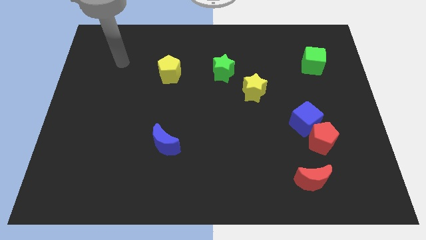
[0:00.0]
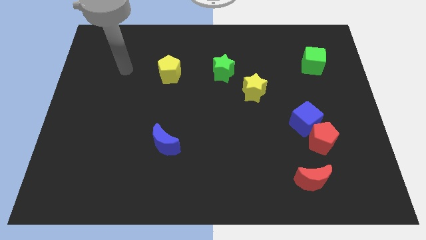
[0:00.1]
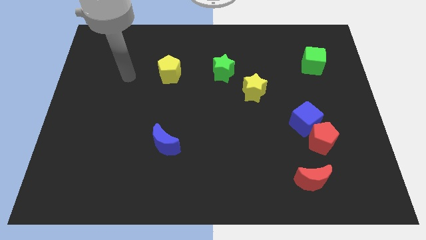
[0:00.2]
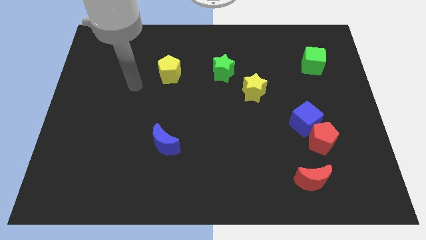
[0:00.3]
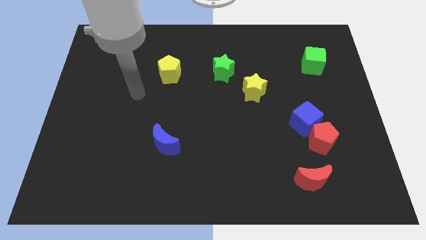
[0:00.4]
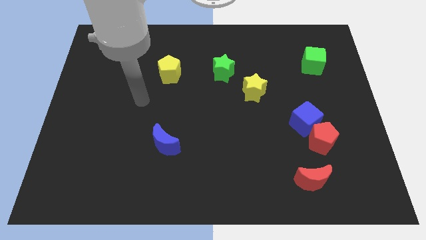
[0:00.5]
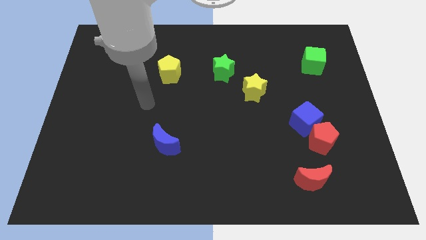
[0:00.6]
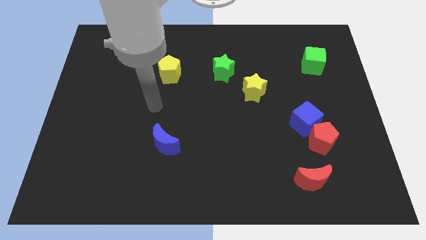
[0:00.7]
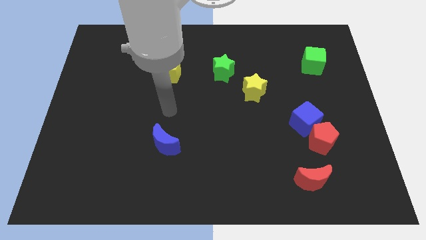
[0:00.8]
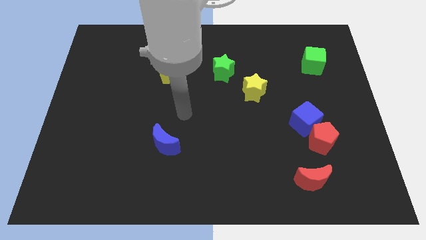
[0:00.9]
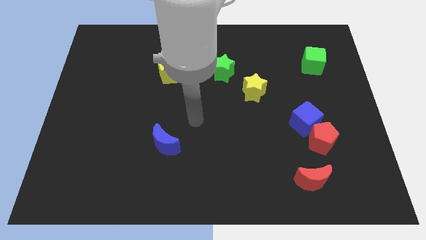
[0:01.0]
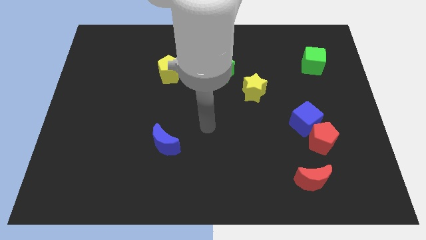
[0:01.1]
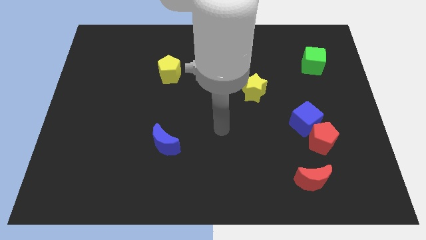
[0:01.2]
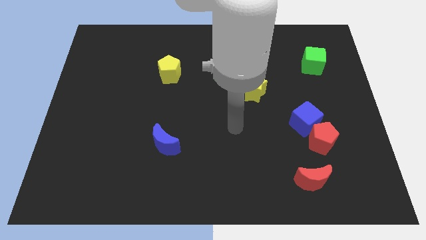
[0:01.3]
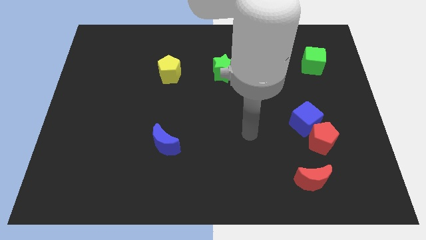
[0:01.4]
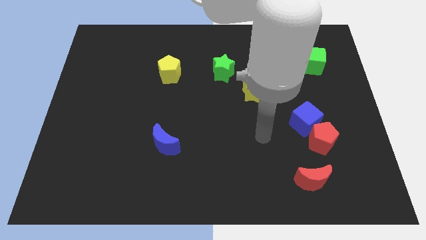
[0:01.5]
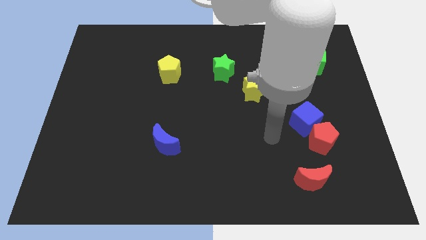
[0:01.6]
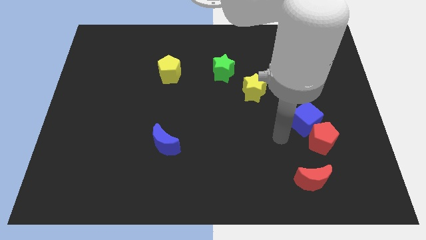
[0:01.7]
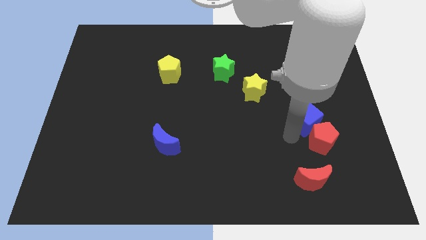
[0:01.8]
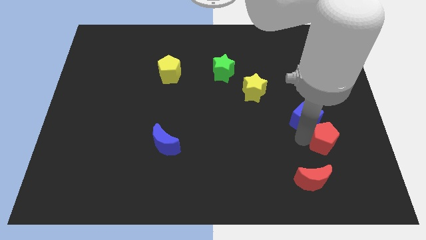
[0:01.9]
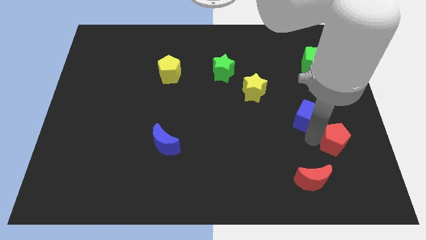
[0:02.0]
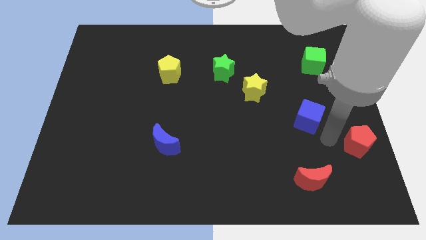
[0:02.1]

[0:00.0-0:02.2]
separate the blue cube from the red pentagon

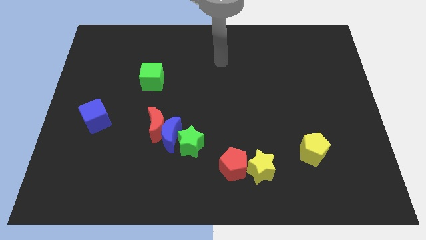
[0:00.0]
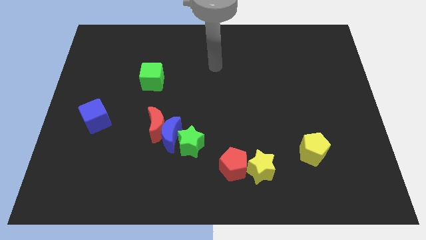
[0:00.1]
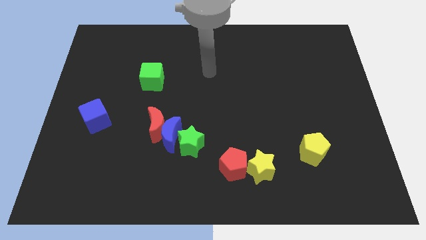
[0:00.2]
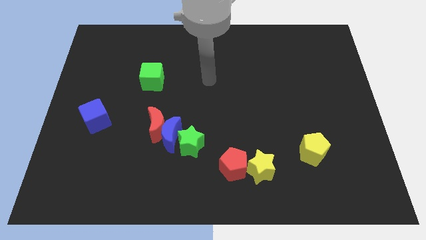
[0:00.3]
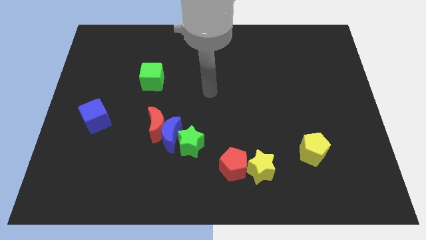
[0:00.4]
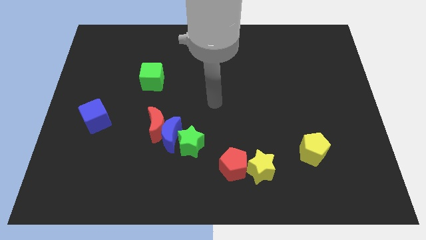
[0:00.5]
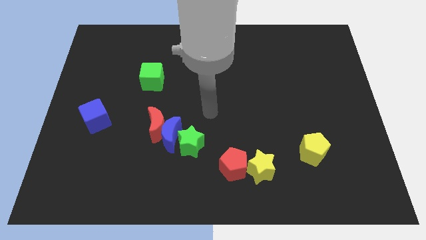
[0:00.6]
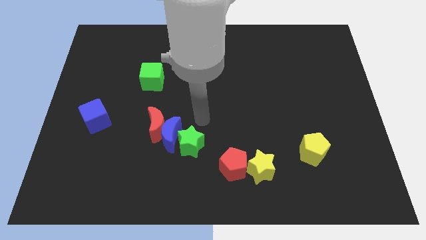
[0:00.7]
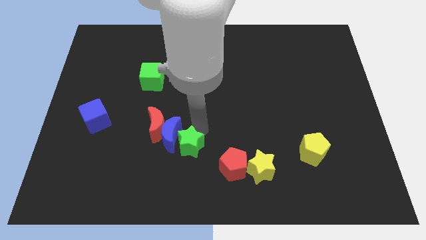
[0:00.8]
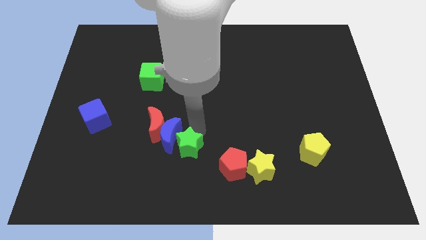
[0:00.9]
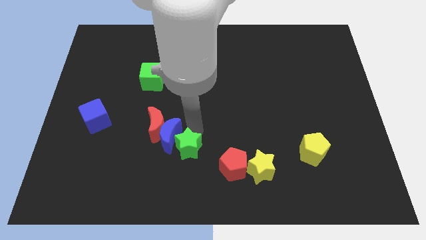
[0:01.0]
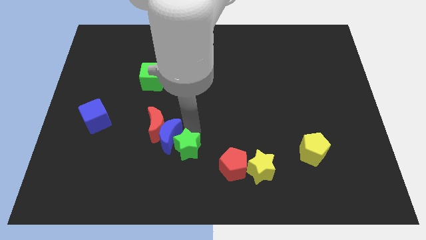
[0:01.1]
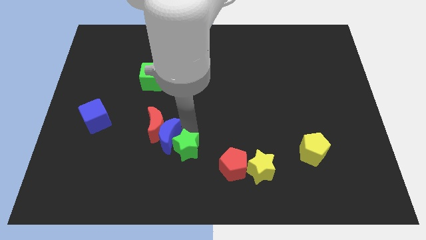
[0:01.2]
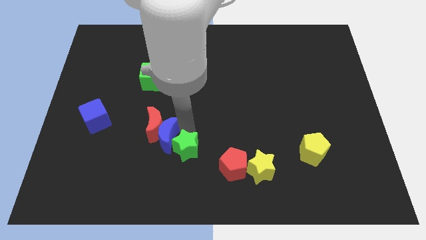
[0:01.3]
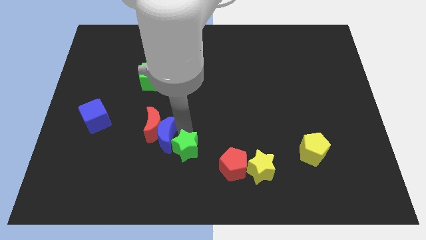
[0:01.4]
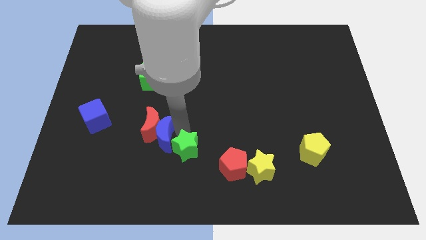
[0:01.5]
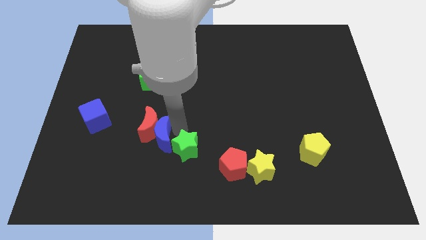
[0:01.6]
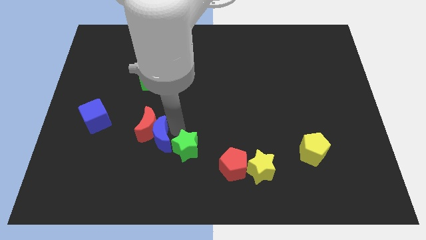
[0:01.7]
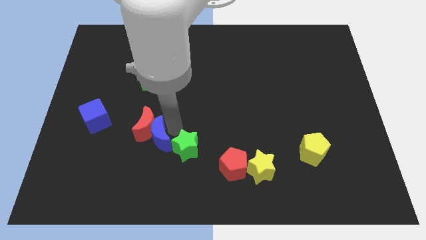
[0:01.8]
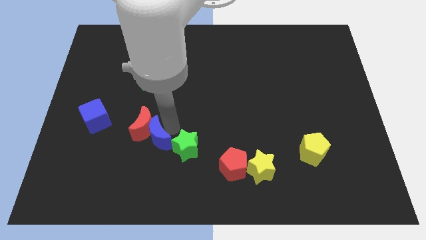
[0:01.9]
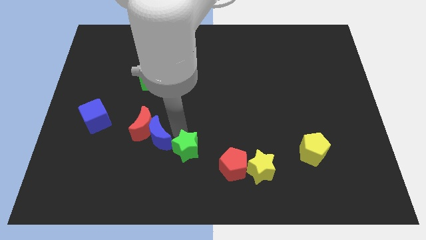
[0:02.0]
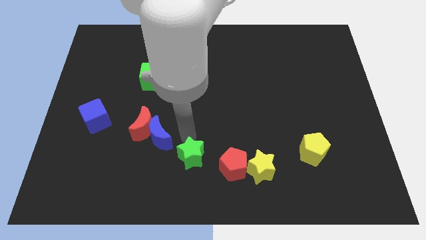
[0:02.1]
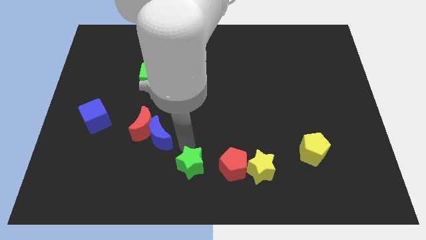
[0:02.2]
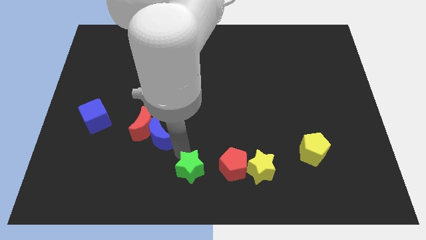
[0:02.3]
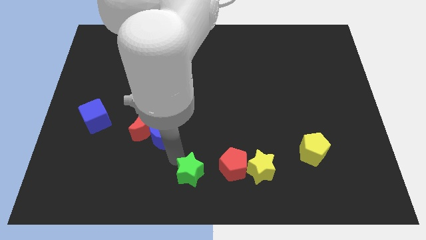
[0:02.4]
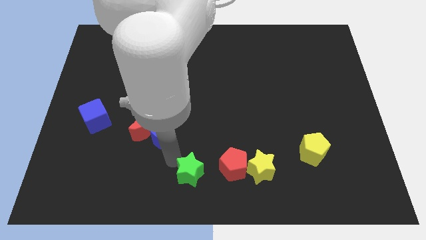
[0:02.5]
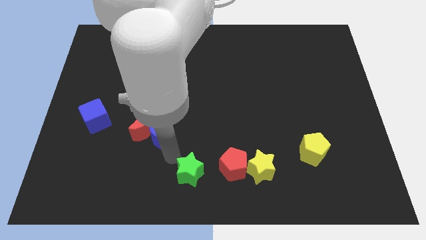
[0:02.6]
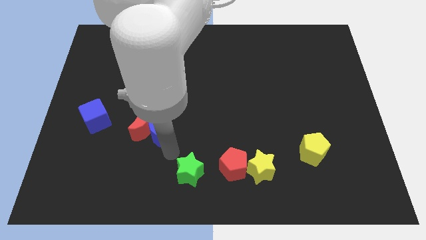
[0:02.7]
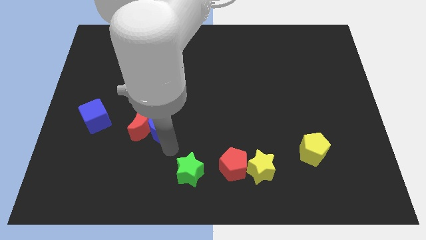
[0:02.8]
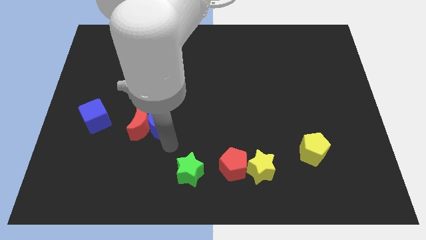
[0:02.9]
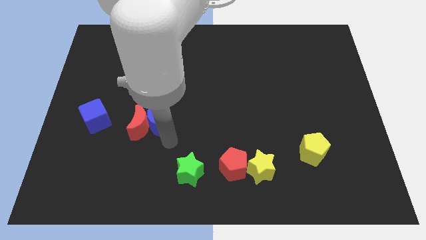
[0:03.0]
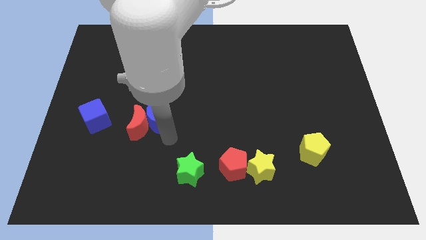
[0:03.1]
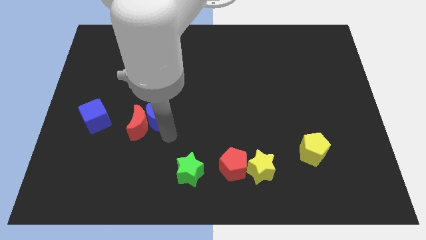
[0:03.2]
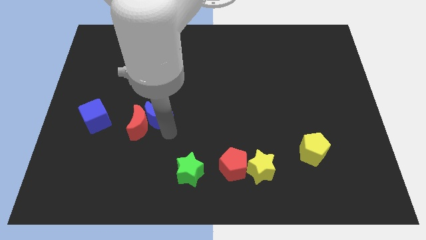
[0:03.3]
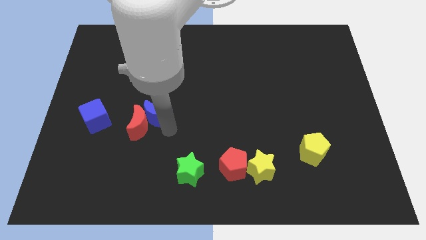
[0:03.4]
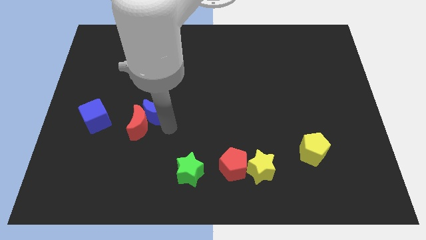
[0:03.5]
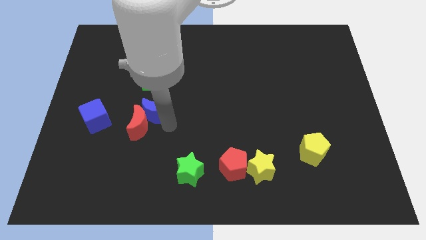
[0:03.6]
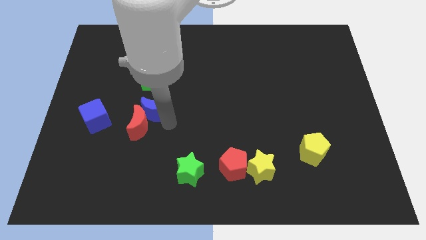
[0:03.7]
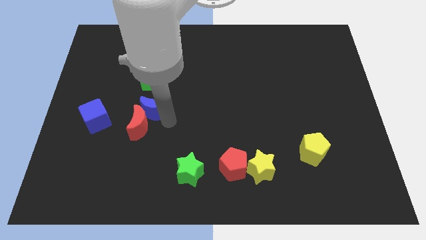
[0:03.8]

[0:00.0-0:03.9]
separate the blue moon from the red moon and green star

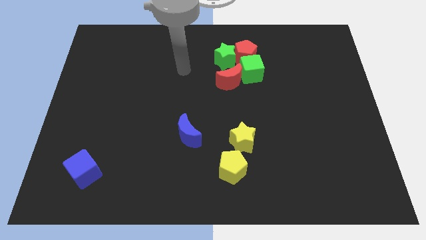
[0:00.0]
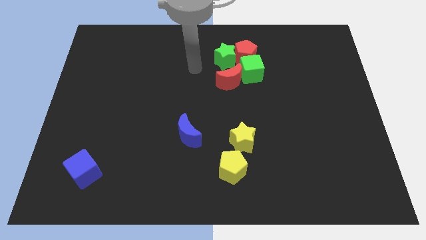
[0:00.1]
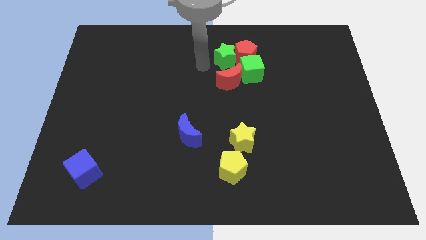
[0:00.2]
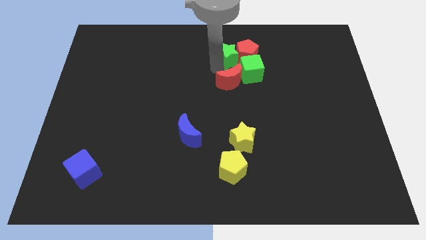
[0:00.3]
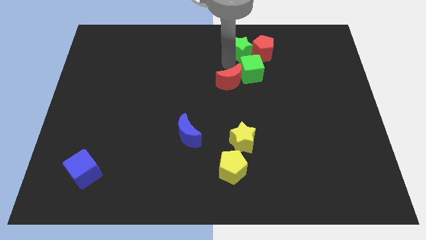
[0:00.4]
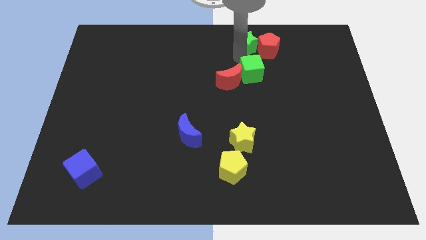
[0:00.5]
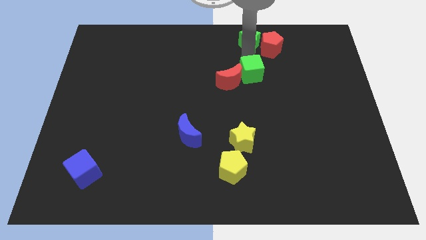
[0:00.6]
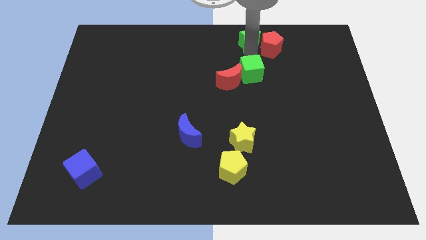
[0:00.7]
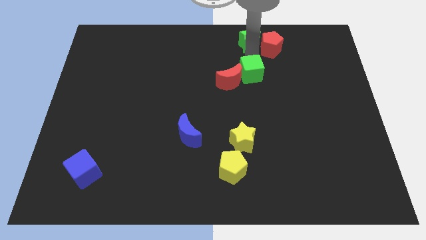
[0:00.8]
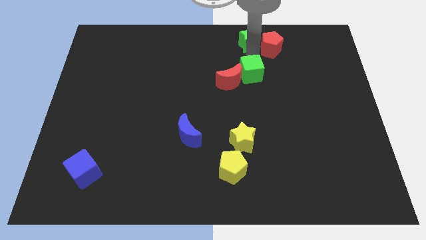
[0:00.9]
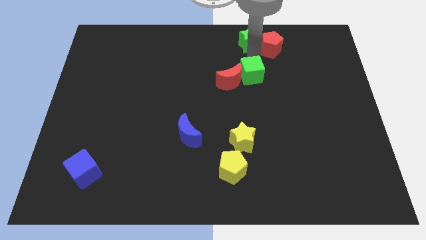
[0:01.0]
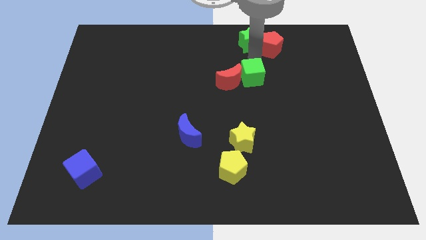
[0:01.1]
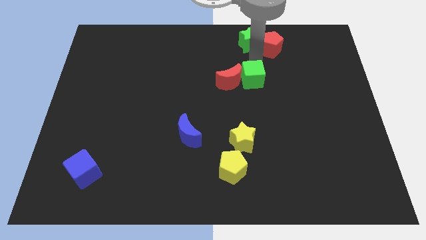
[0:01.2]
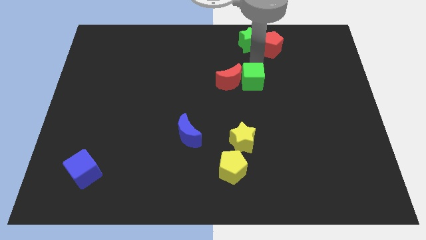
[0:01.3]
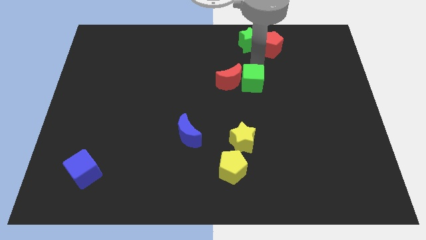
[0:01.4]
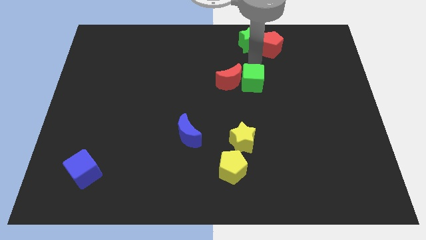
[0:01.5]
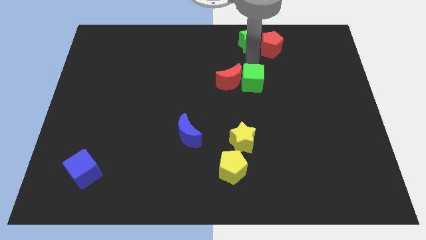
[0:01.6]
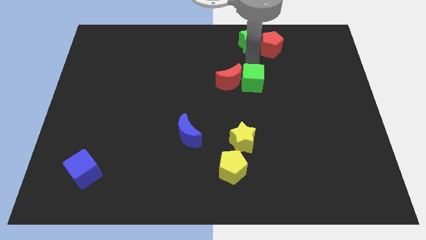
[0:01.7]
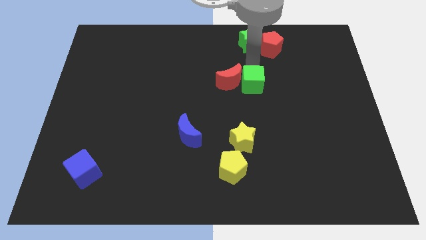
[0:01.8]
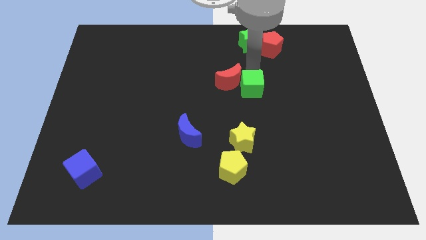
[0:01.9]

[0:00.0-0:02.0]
separate the green cube from the group

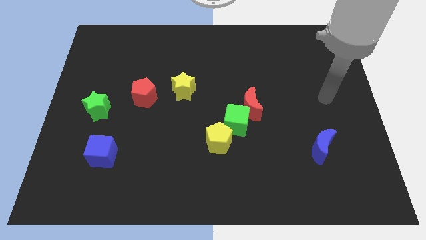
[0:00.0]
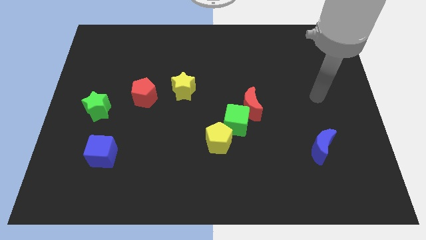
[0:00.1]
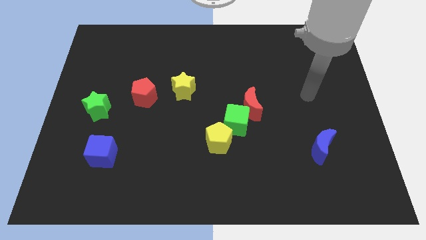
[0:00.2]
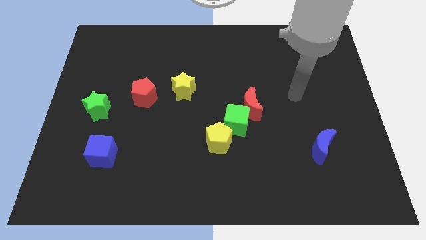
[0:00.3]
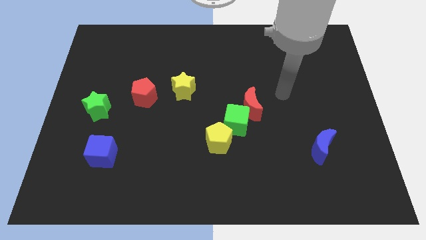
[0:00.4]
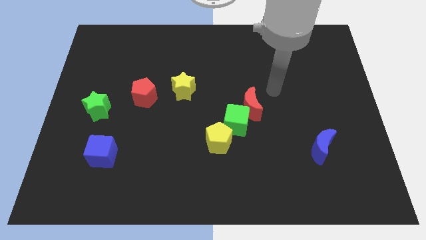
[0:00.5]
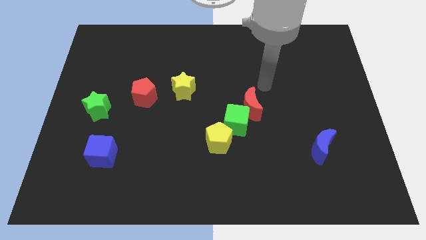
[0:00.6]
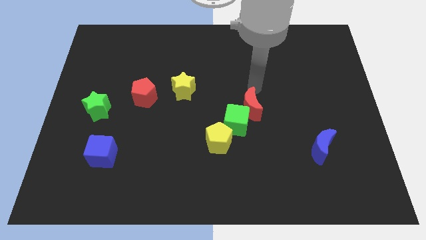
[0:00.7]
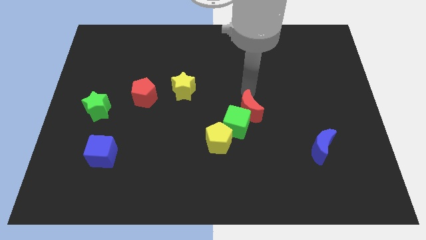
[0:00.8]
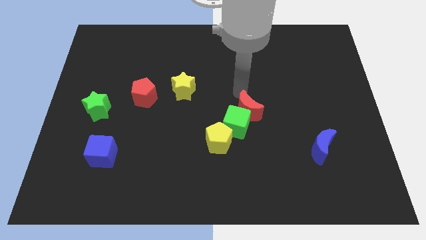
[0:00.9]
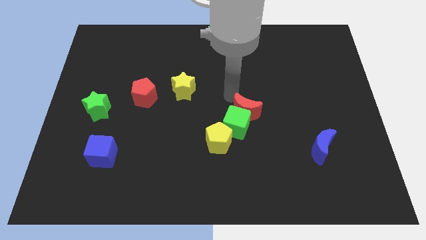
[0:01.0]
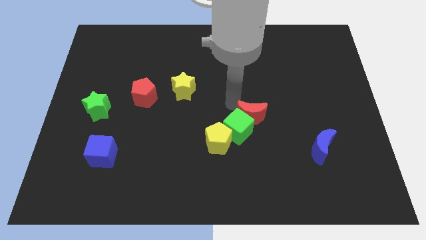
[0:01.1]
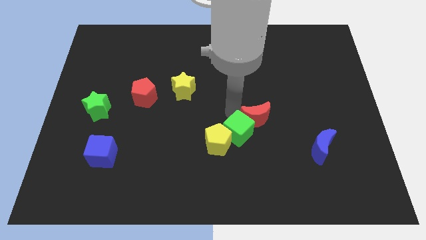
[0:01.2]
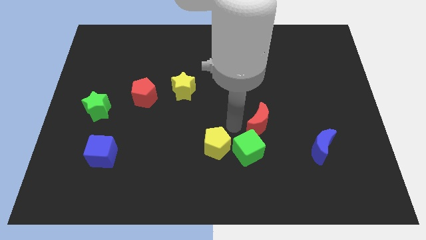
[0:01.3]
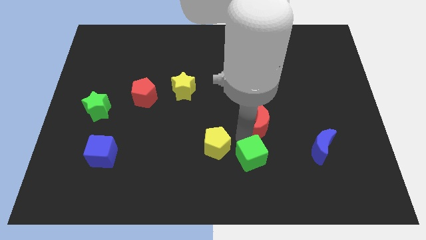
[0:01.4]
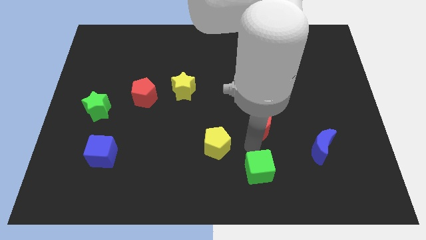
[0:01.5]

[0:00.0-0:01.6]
pull the red moon apart from the green cube
